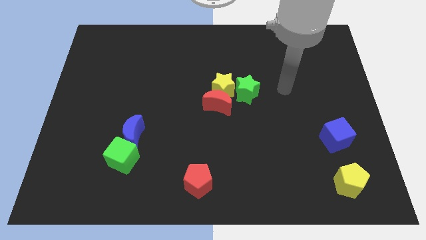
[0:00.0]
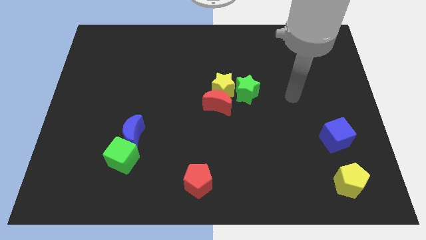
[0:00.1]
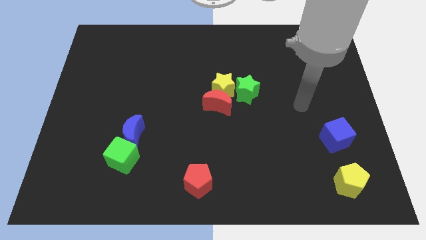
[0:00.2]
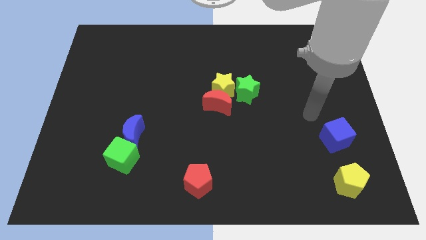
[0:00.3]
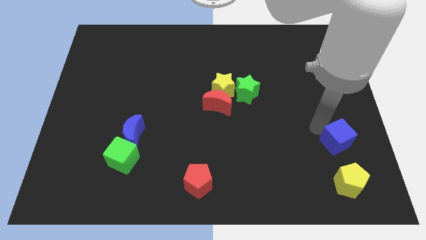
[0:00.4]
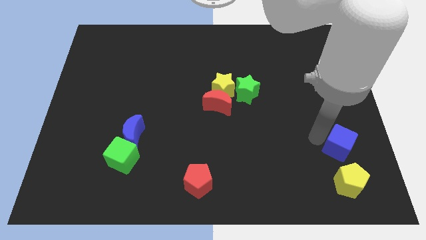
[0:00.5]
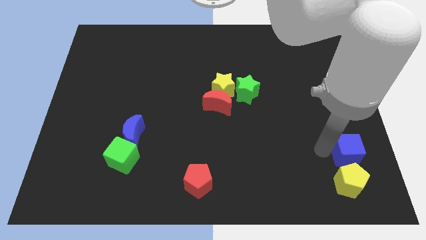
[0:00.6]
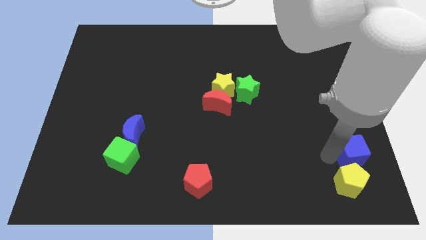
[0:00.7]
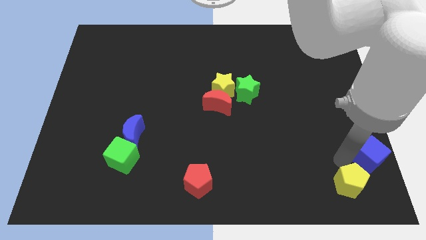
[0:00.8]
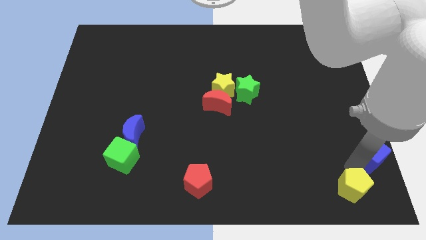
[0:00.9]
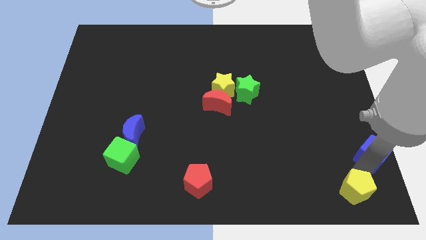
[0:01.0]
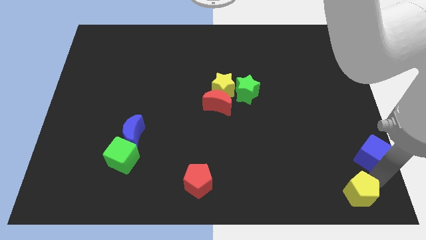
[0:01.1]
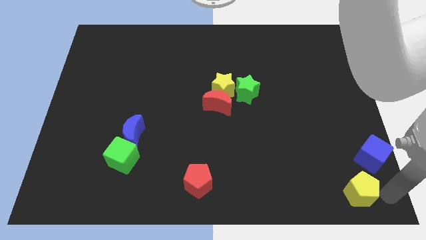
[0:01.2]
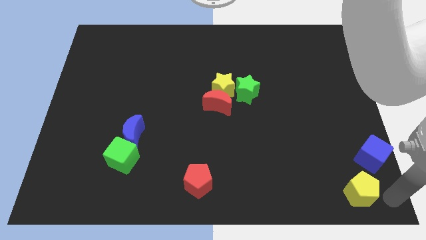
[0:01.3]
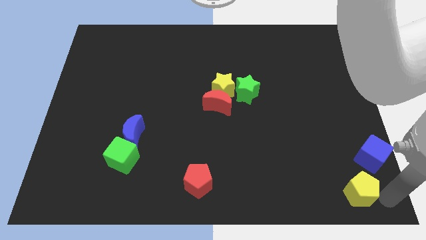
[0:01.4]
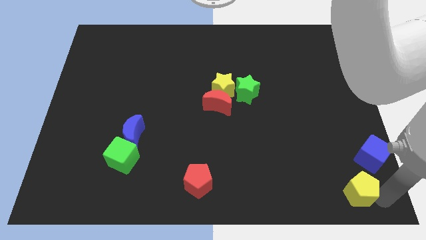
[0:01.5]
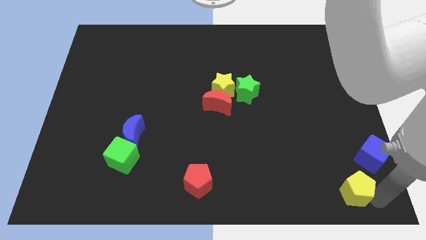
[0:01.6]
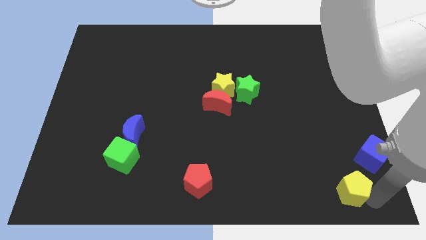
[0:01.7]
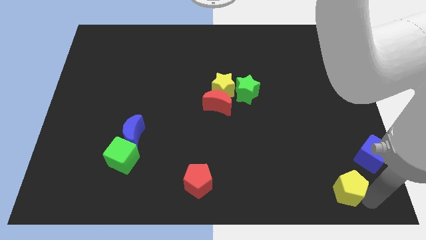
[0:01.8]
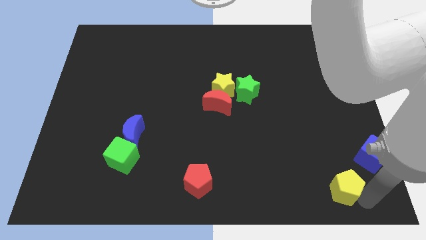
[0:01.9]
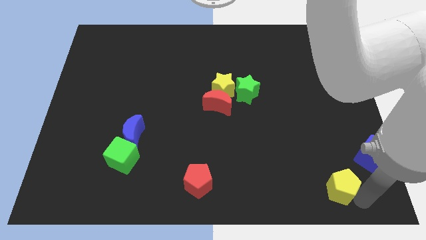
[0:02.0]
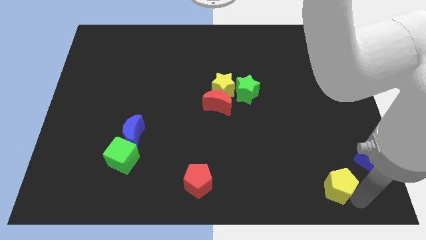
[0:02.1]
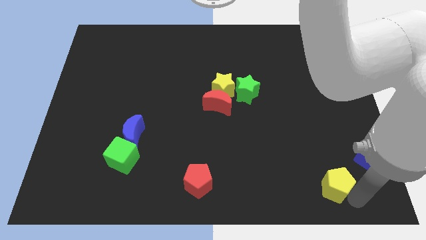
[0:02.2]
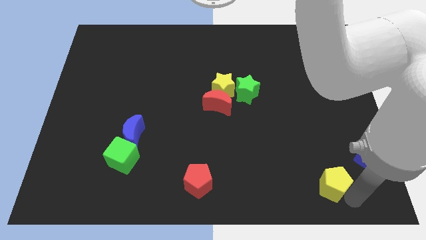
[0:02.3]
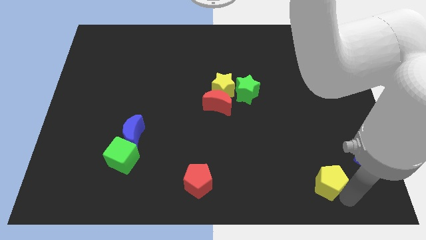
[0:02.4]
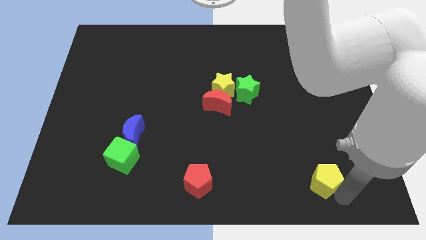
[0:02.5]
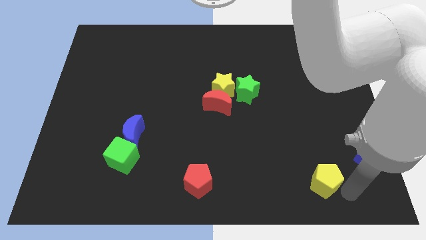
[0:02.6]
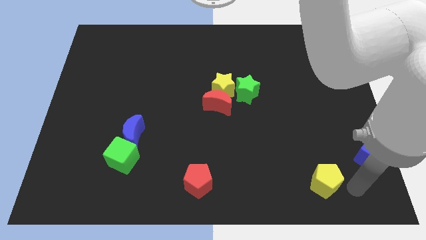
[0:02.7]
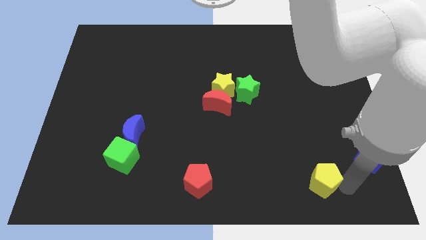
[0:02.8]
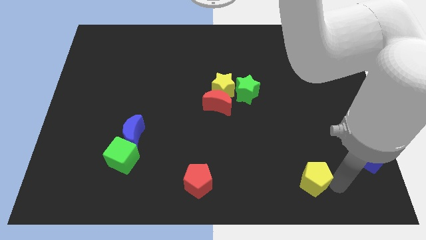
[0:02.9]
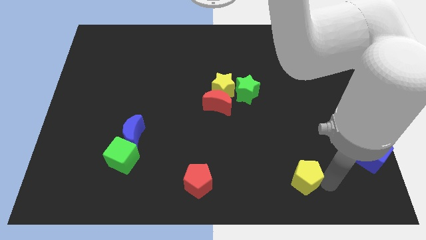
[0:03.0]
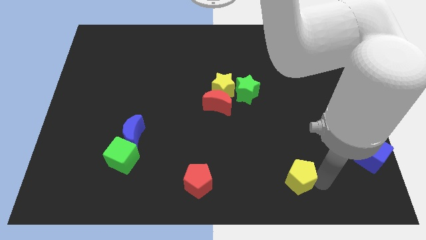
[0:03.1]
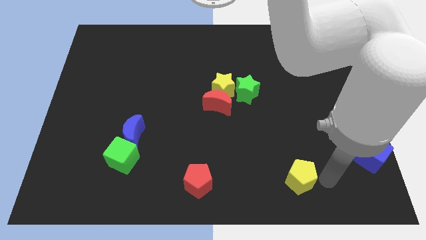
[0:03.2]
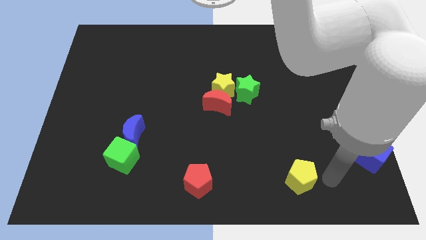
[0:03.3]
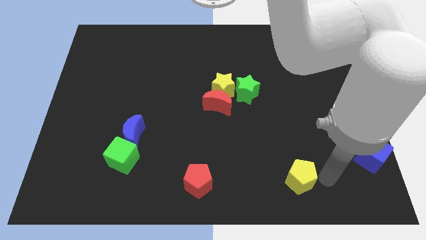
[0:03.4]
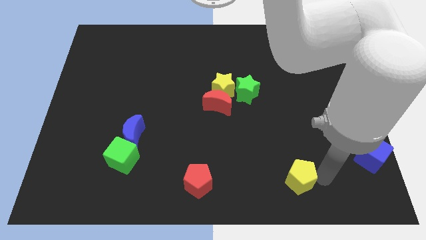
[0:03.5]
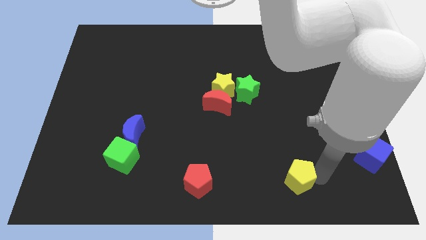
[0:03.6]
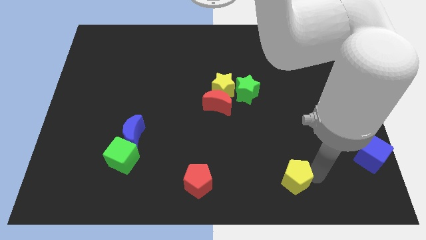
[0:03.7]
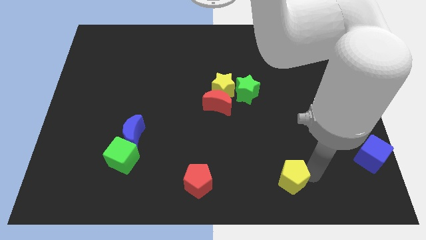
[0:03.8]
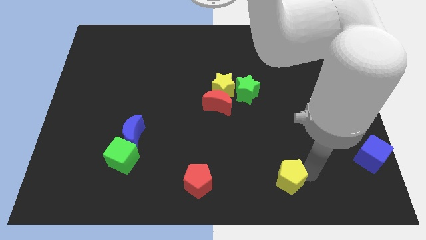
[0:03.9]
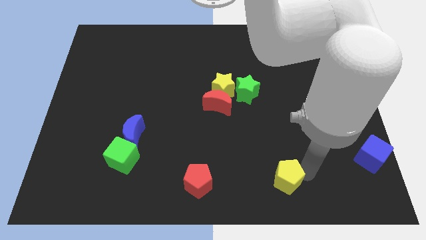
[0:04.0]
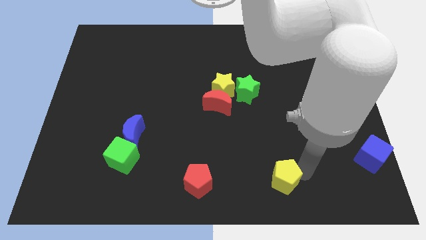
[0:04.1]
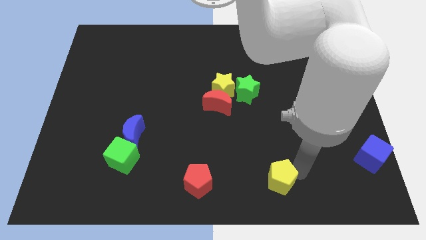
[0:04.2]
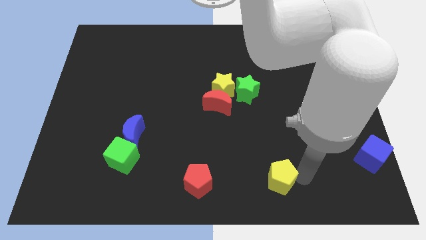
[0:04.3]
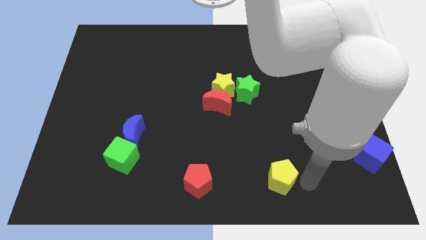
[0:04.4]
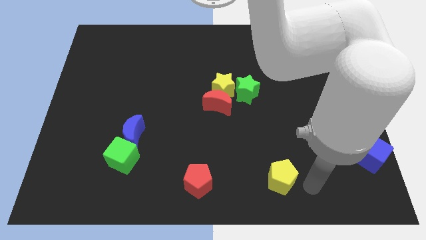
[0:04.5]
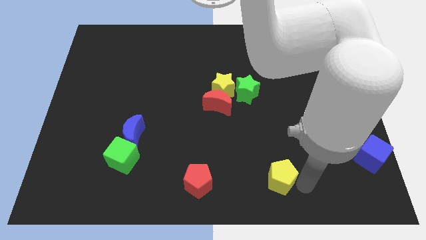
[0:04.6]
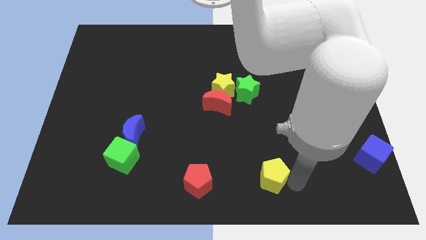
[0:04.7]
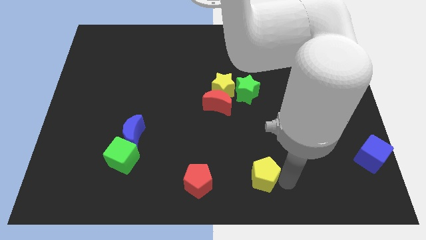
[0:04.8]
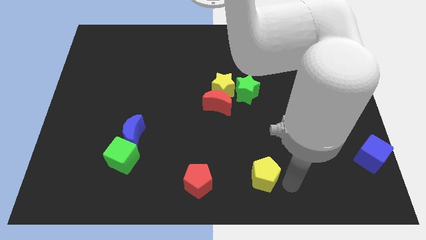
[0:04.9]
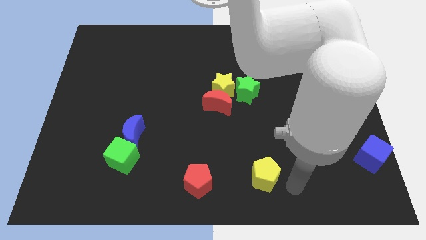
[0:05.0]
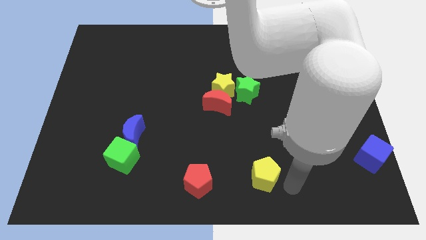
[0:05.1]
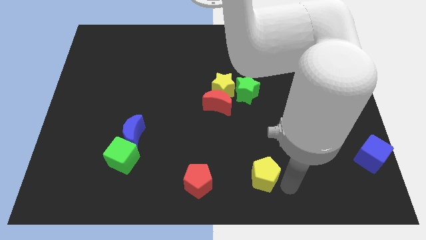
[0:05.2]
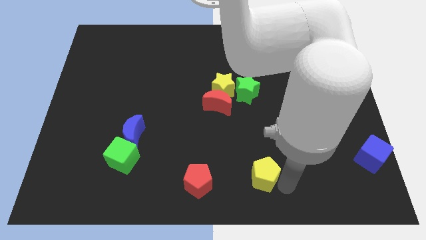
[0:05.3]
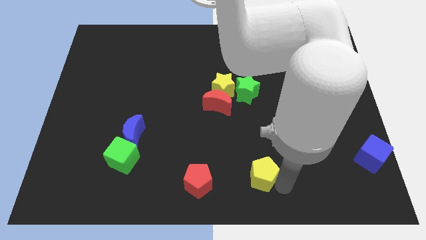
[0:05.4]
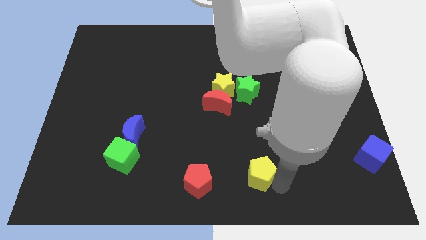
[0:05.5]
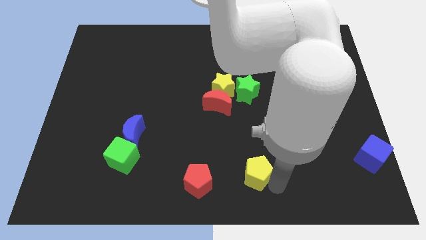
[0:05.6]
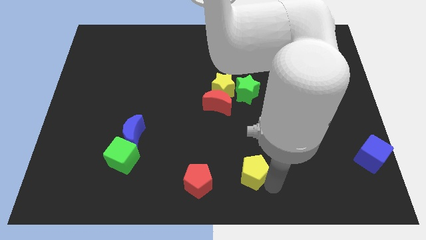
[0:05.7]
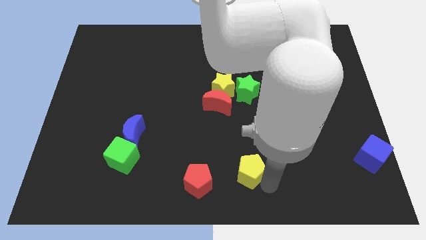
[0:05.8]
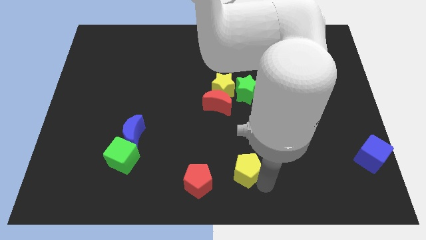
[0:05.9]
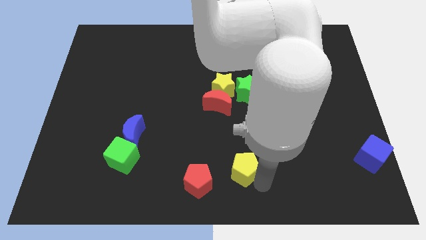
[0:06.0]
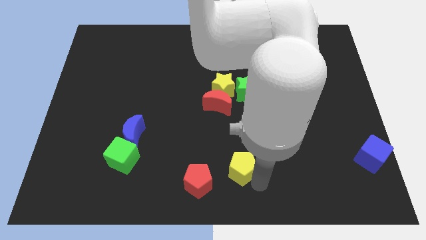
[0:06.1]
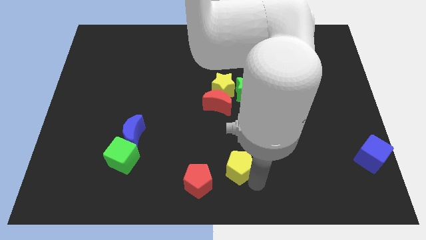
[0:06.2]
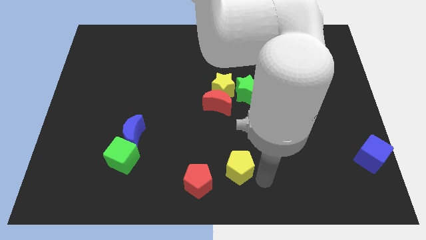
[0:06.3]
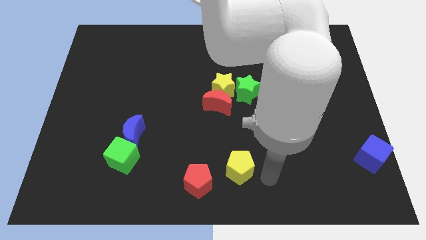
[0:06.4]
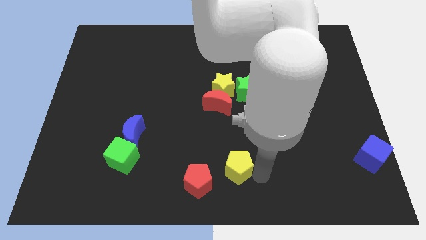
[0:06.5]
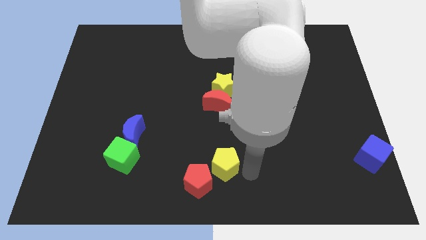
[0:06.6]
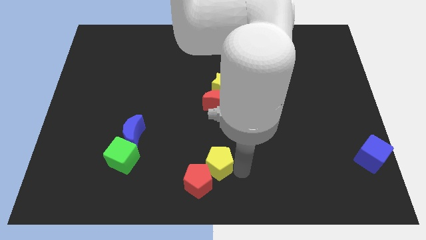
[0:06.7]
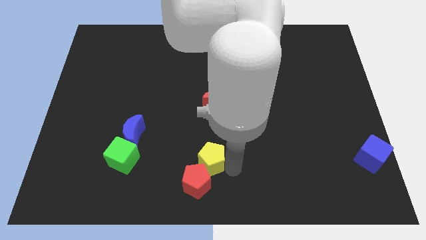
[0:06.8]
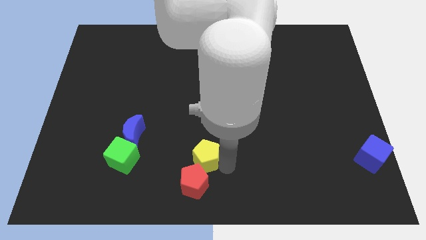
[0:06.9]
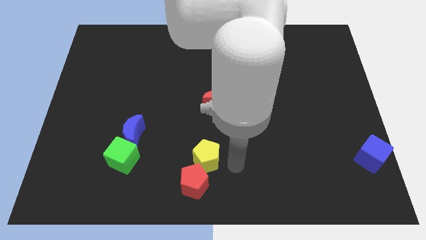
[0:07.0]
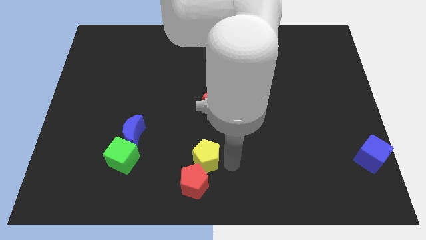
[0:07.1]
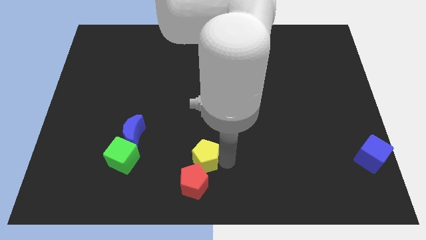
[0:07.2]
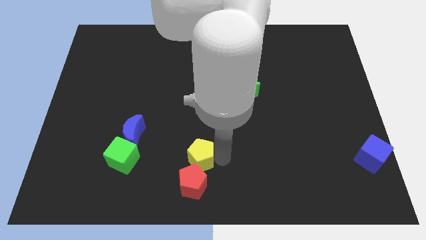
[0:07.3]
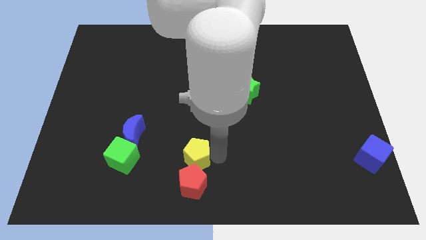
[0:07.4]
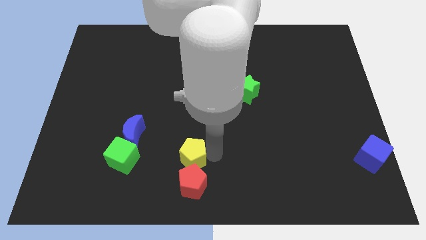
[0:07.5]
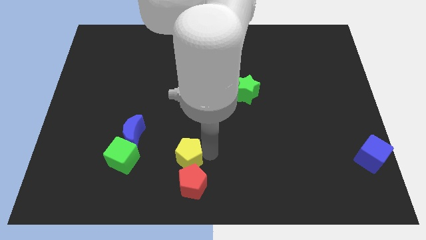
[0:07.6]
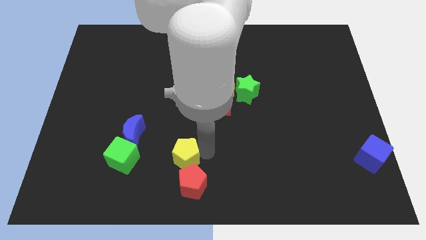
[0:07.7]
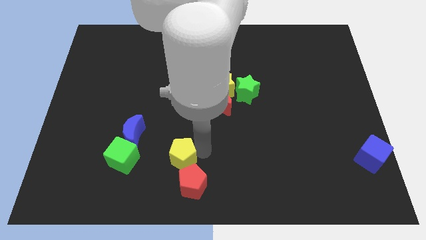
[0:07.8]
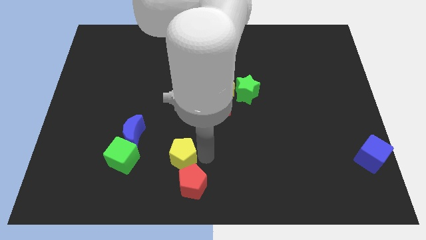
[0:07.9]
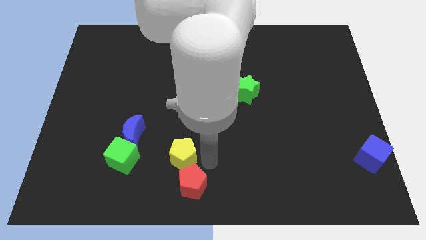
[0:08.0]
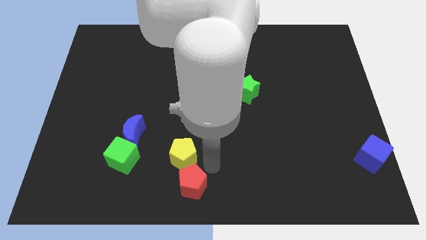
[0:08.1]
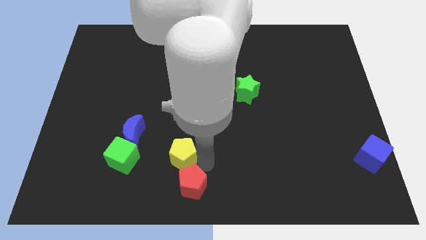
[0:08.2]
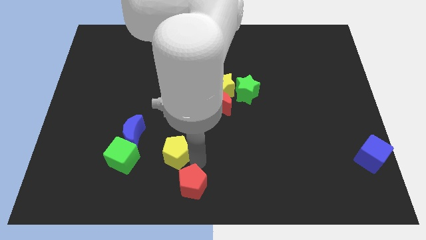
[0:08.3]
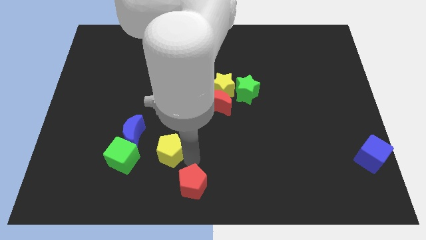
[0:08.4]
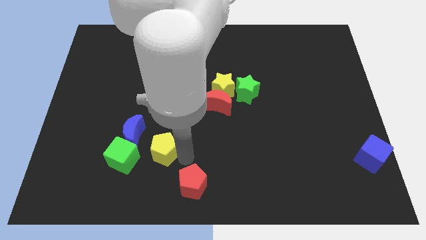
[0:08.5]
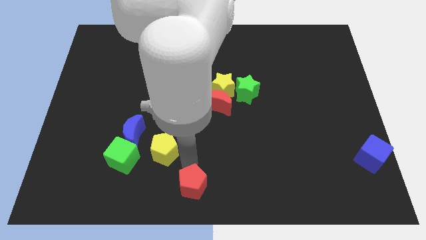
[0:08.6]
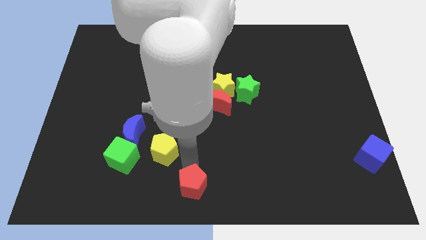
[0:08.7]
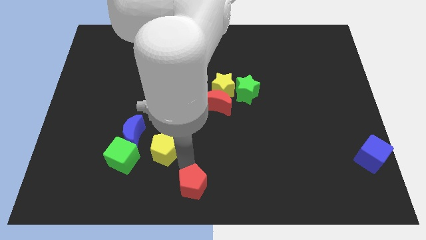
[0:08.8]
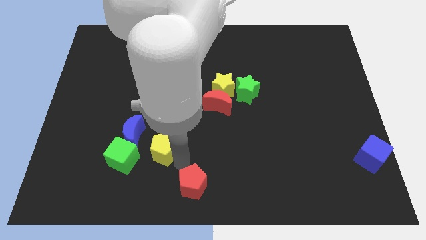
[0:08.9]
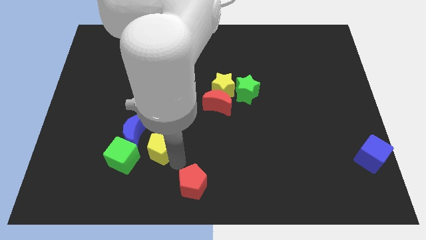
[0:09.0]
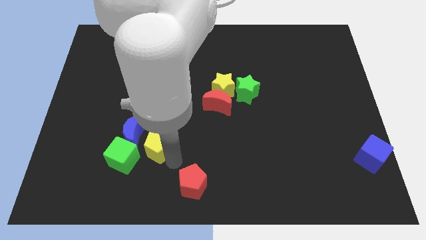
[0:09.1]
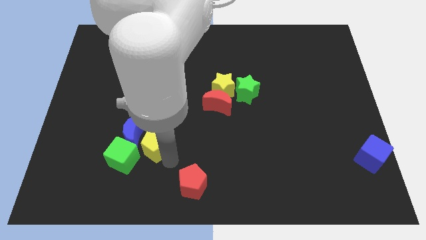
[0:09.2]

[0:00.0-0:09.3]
put the yellow pentagon close to the blue moon
